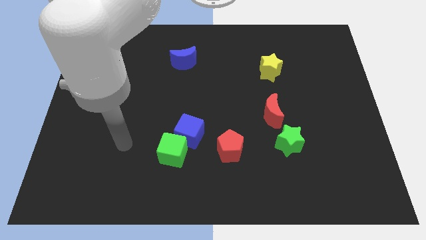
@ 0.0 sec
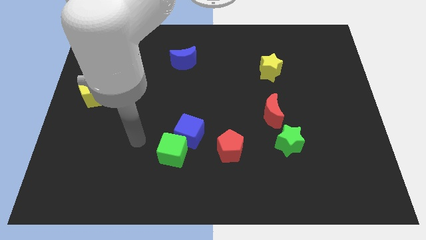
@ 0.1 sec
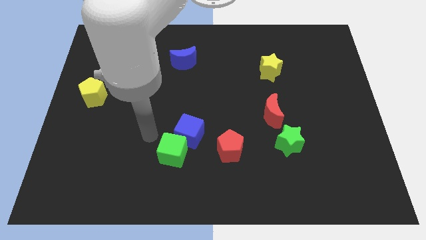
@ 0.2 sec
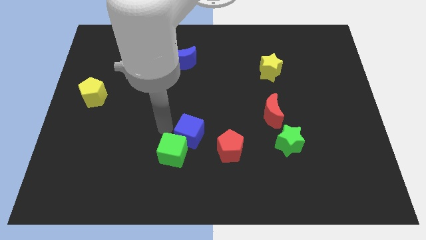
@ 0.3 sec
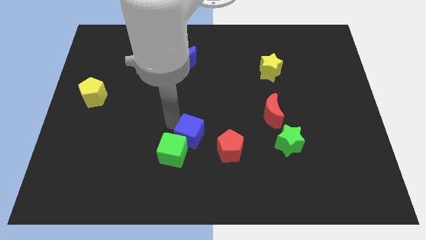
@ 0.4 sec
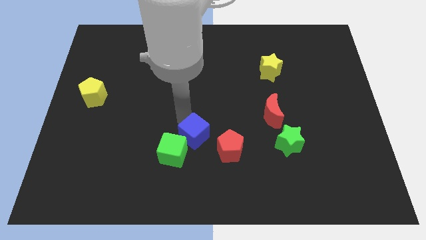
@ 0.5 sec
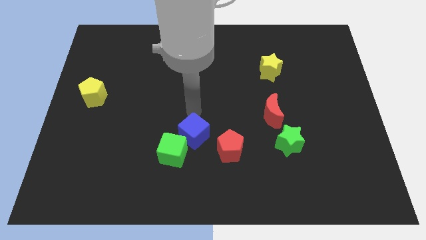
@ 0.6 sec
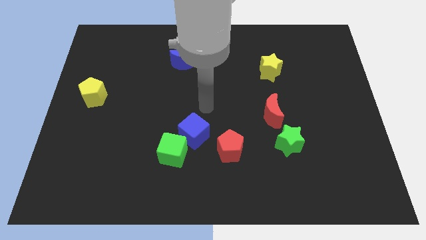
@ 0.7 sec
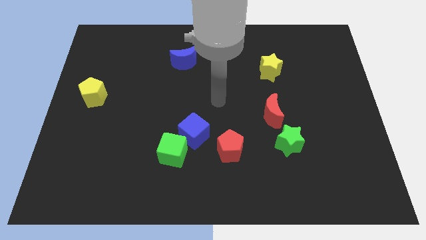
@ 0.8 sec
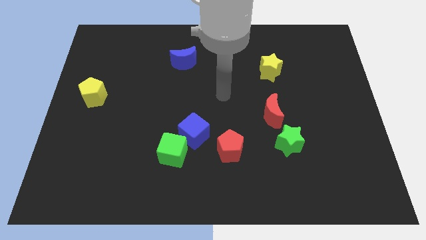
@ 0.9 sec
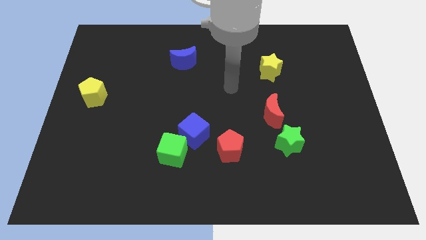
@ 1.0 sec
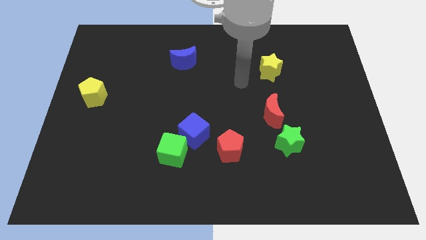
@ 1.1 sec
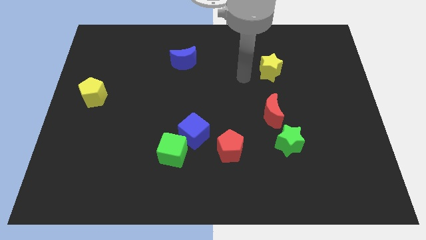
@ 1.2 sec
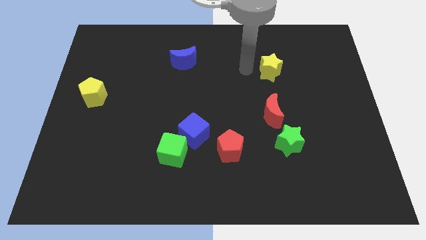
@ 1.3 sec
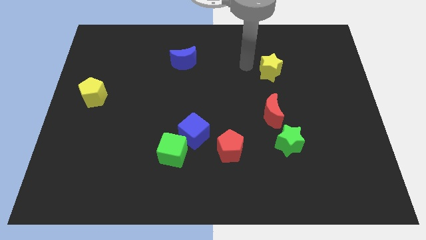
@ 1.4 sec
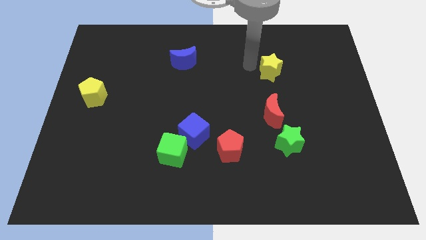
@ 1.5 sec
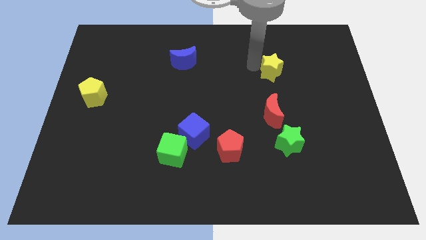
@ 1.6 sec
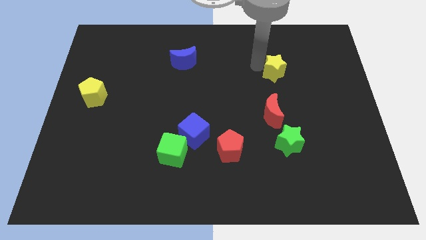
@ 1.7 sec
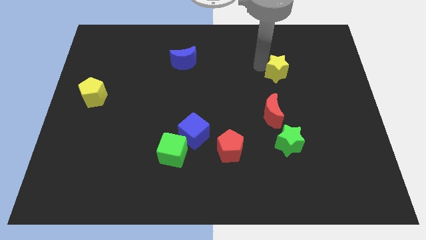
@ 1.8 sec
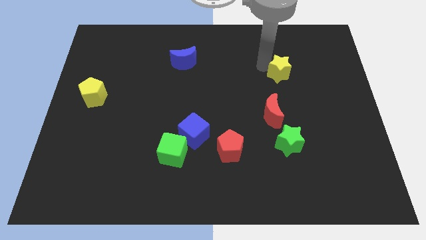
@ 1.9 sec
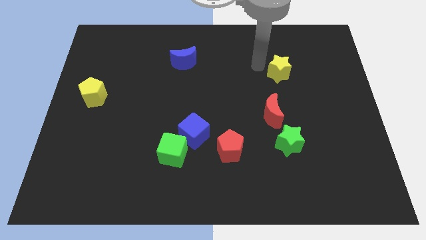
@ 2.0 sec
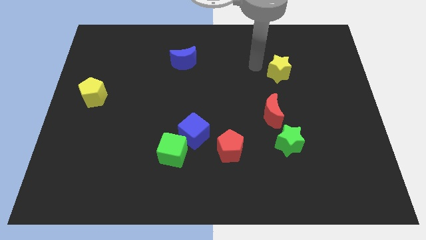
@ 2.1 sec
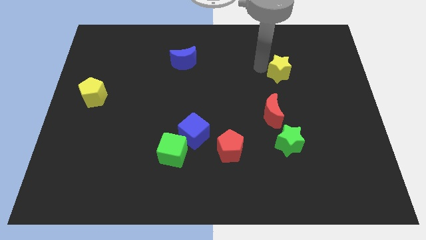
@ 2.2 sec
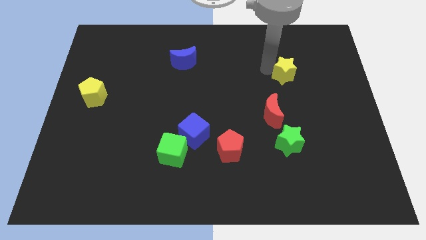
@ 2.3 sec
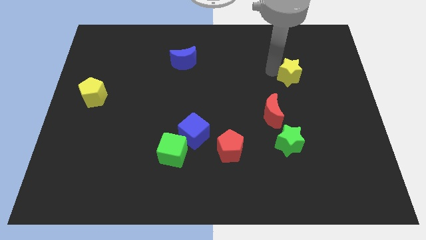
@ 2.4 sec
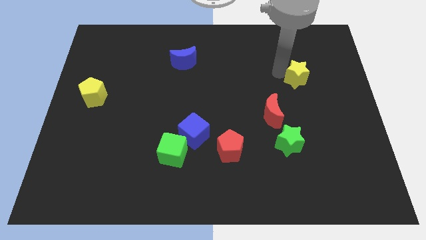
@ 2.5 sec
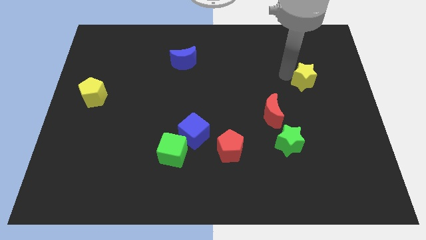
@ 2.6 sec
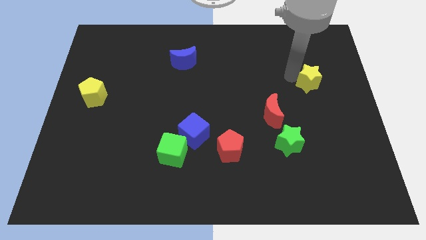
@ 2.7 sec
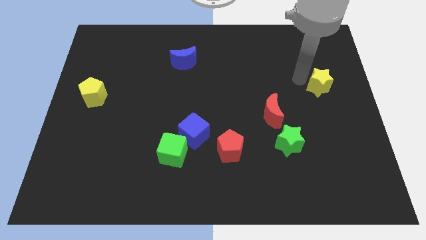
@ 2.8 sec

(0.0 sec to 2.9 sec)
put the yellow star to the center right

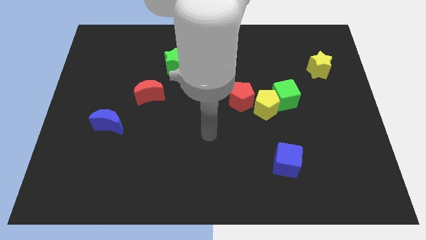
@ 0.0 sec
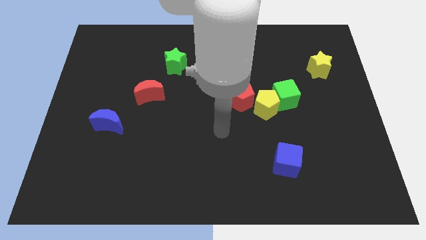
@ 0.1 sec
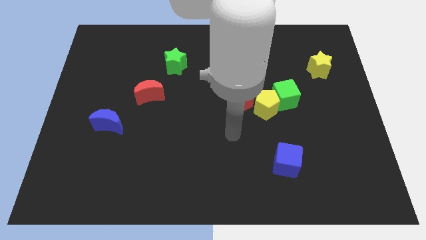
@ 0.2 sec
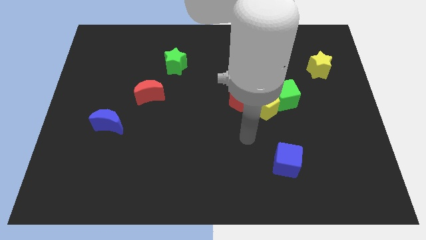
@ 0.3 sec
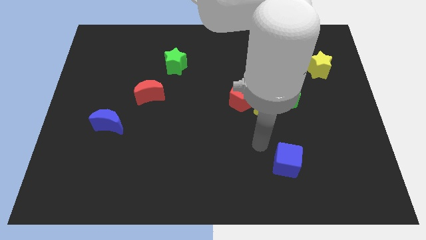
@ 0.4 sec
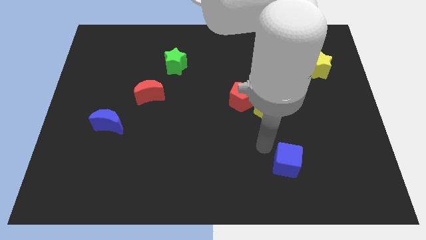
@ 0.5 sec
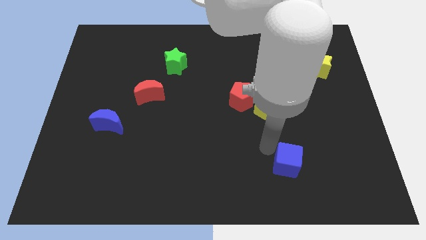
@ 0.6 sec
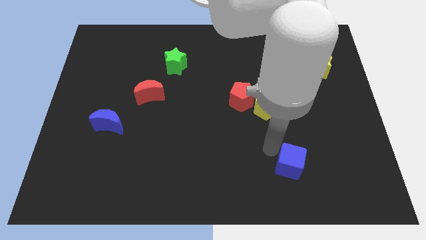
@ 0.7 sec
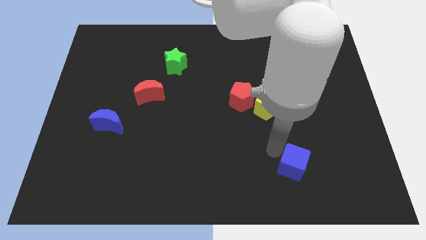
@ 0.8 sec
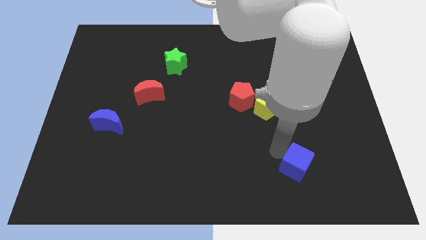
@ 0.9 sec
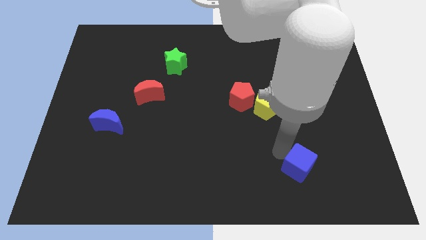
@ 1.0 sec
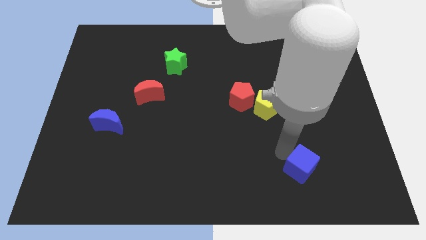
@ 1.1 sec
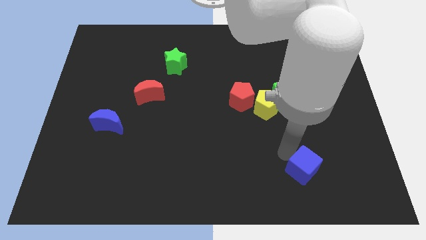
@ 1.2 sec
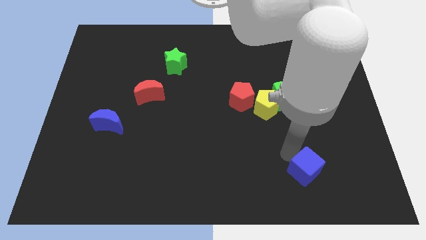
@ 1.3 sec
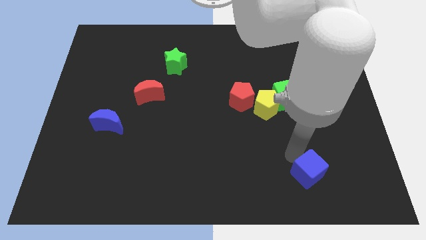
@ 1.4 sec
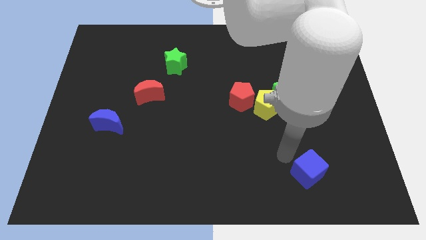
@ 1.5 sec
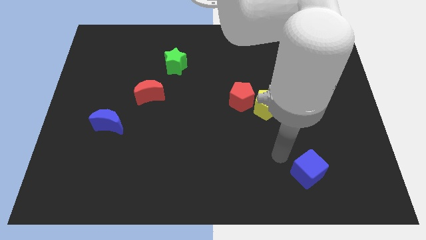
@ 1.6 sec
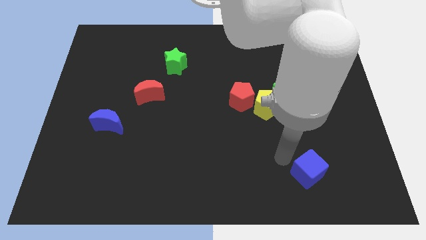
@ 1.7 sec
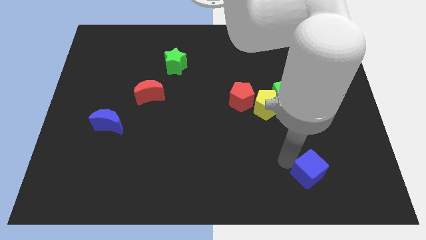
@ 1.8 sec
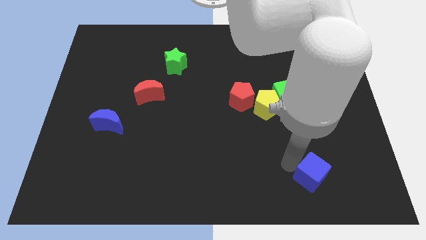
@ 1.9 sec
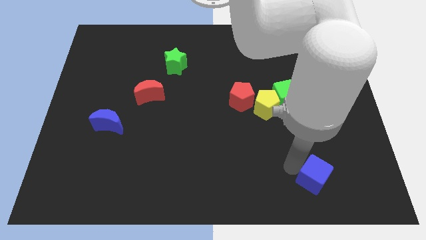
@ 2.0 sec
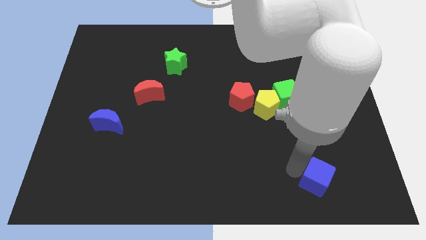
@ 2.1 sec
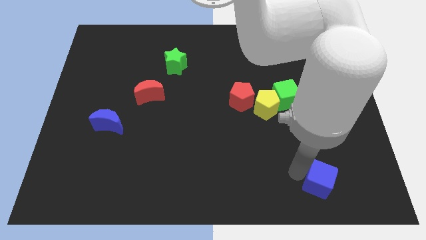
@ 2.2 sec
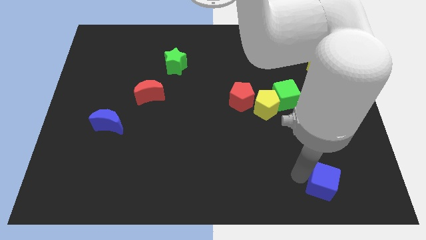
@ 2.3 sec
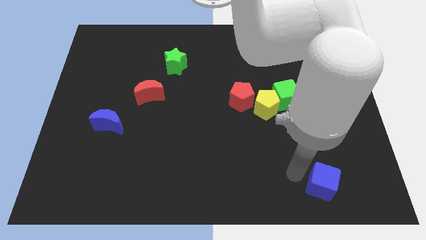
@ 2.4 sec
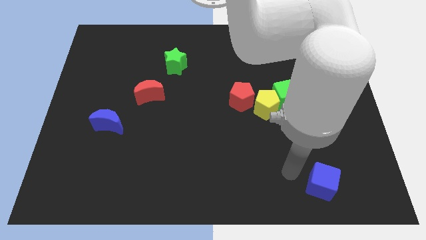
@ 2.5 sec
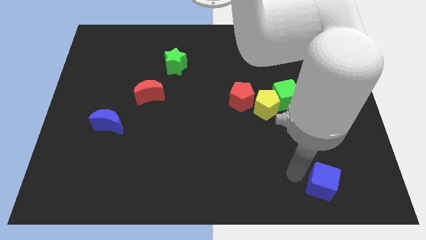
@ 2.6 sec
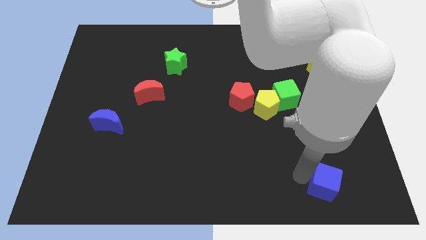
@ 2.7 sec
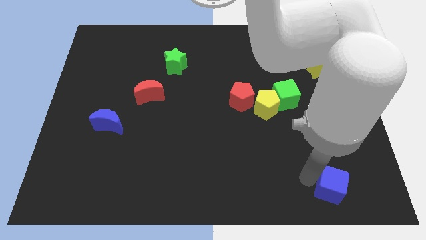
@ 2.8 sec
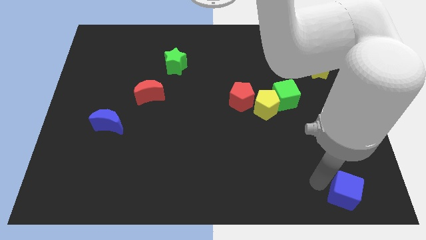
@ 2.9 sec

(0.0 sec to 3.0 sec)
put the blue cube to the bottom right corner

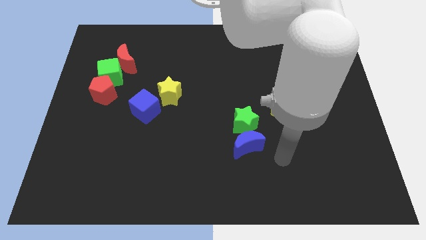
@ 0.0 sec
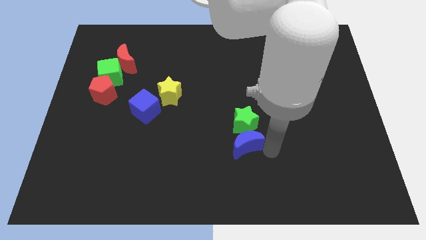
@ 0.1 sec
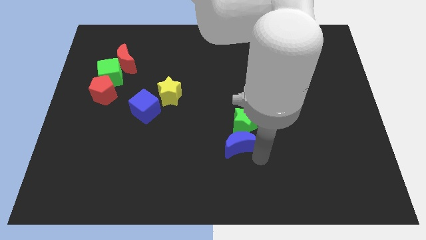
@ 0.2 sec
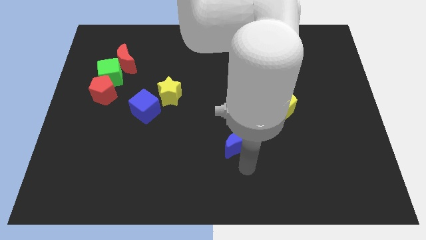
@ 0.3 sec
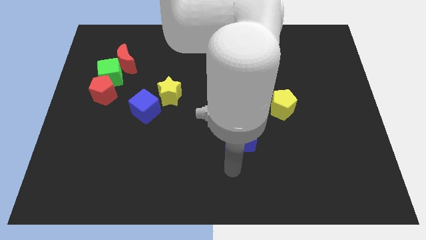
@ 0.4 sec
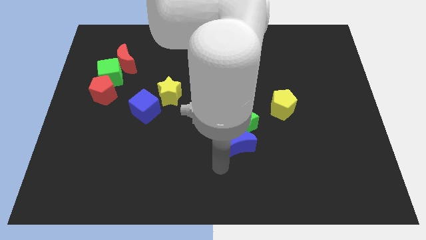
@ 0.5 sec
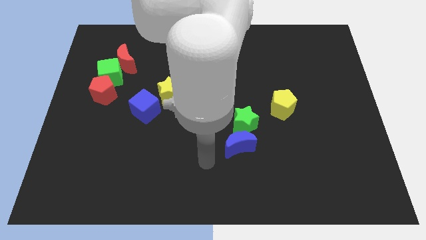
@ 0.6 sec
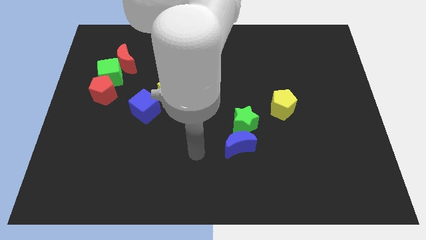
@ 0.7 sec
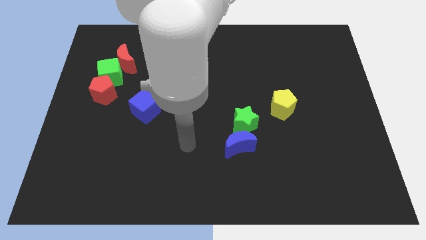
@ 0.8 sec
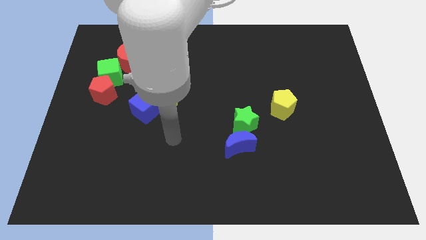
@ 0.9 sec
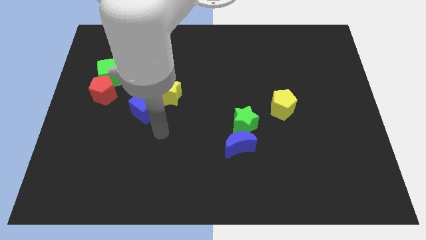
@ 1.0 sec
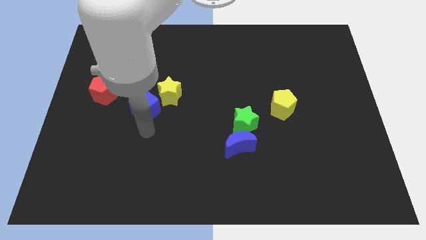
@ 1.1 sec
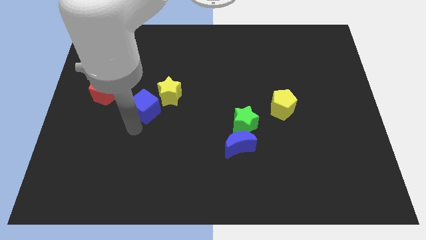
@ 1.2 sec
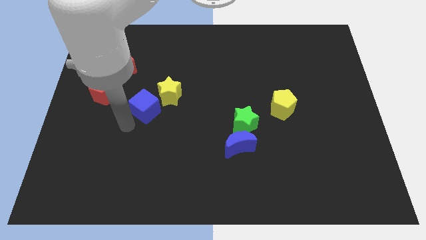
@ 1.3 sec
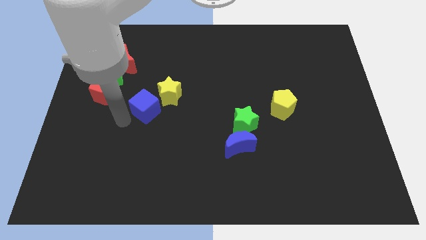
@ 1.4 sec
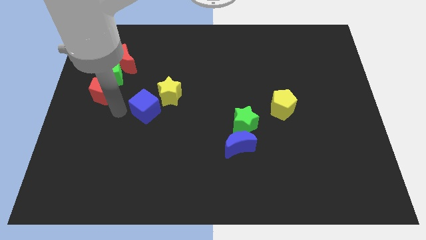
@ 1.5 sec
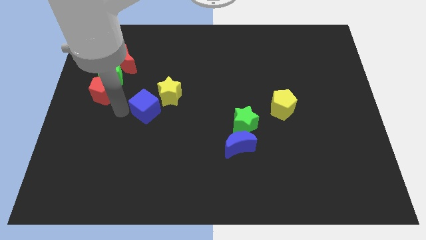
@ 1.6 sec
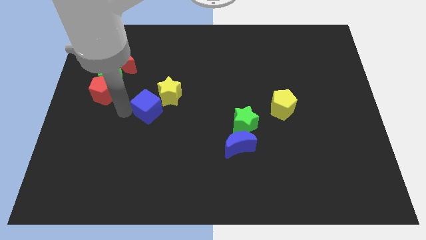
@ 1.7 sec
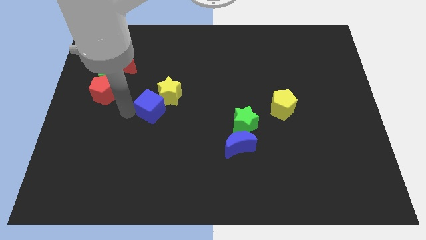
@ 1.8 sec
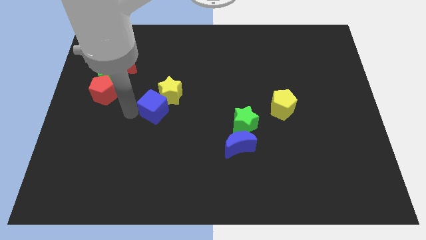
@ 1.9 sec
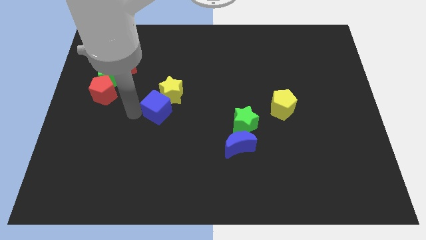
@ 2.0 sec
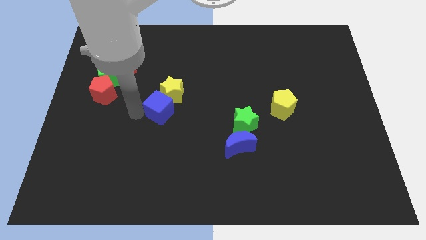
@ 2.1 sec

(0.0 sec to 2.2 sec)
put the blue cube to the center of the board

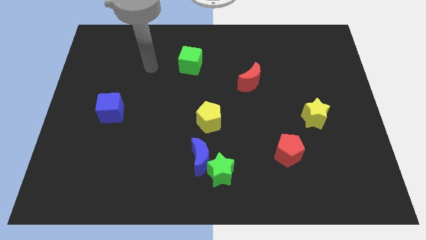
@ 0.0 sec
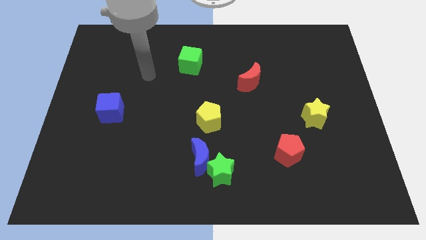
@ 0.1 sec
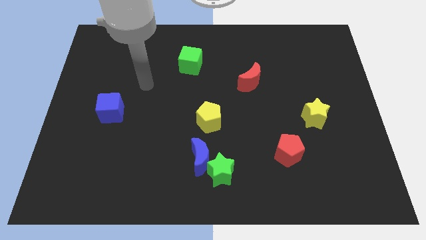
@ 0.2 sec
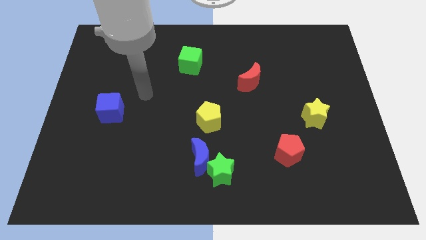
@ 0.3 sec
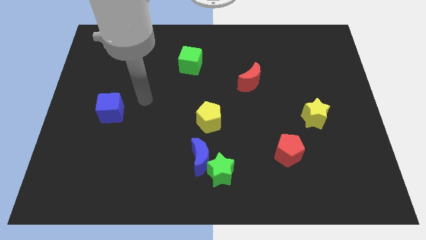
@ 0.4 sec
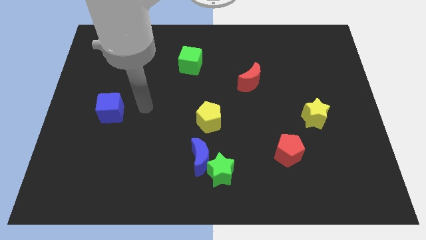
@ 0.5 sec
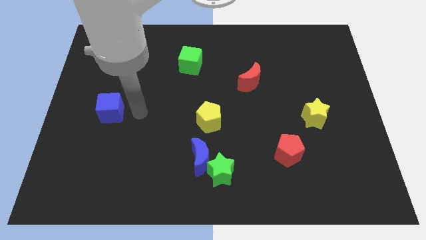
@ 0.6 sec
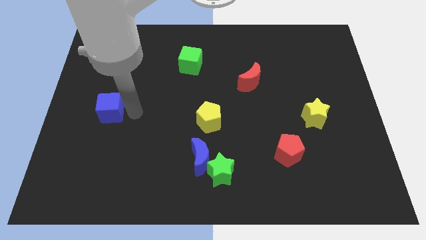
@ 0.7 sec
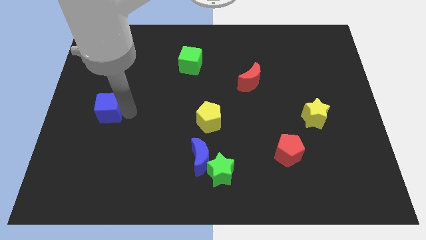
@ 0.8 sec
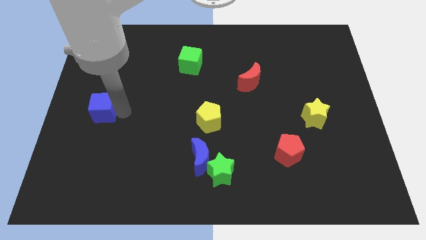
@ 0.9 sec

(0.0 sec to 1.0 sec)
move the blue cube to the left side of the board
